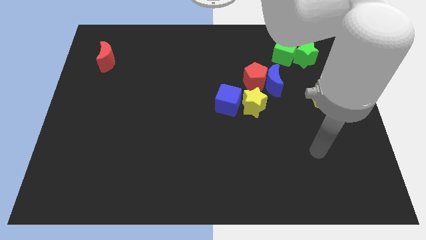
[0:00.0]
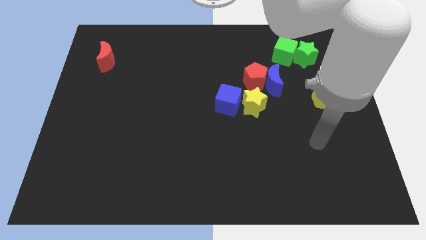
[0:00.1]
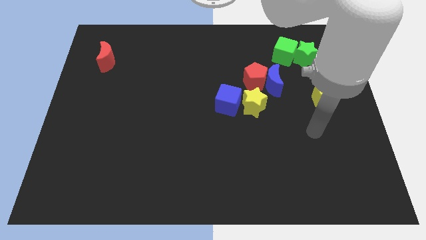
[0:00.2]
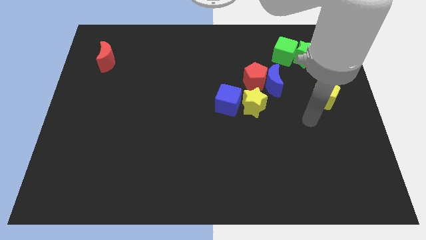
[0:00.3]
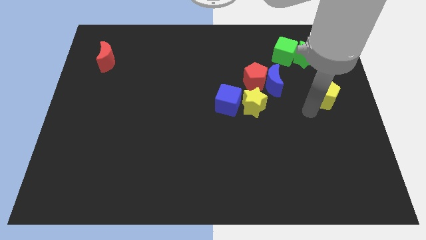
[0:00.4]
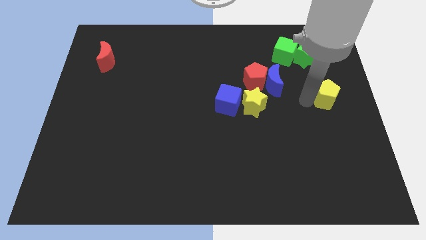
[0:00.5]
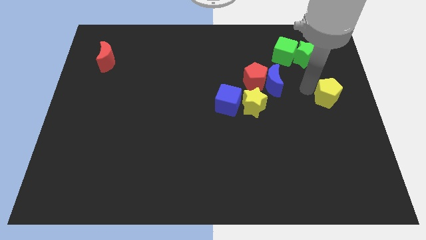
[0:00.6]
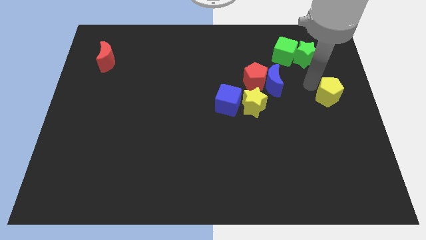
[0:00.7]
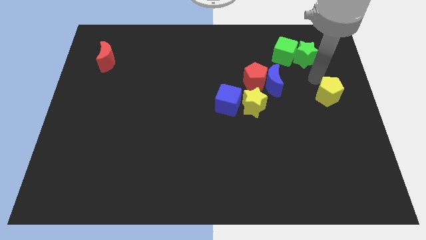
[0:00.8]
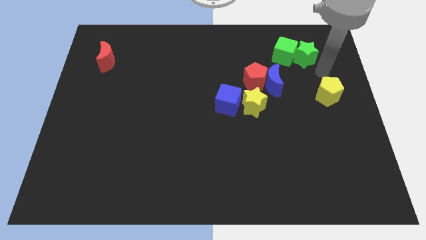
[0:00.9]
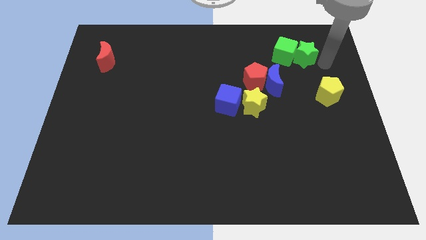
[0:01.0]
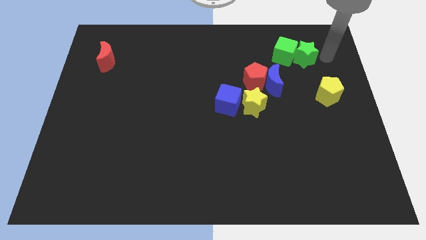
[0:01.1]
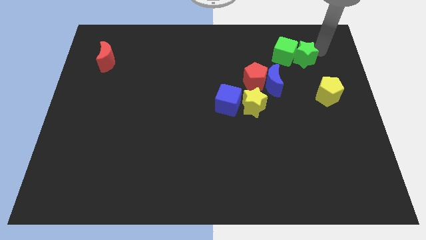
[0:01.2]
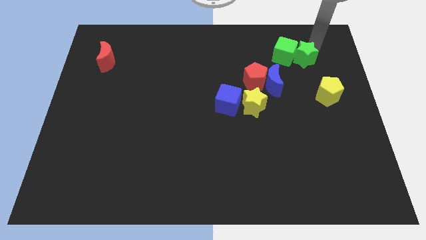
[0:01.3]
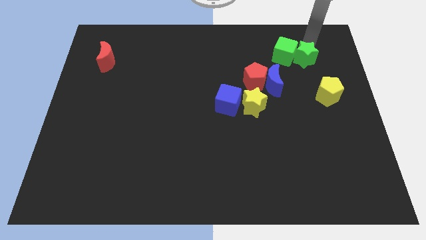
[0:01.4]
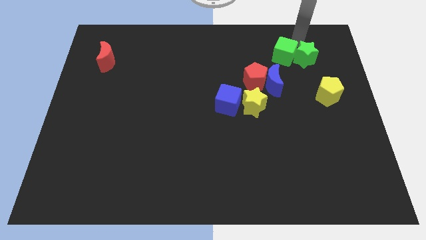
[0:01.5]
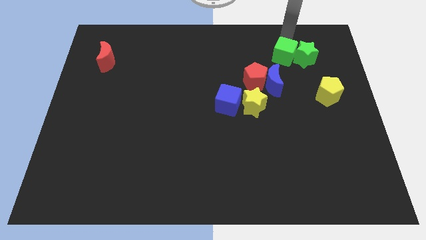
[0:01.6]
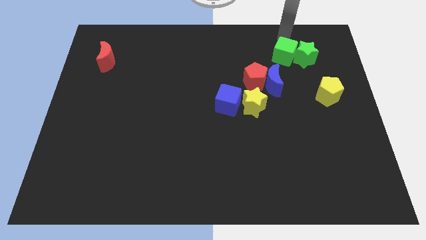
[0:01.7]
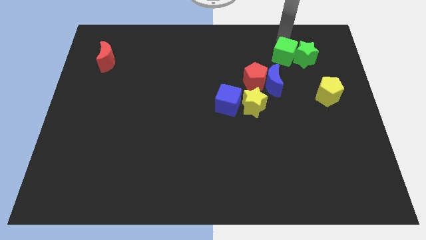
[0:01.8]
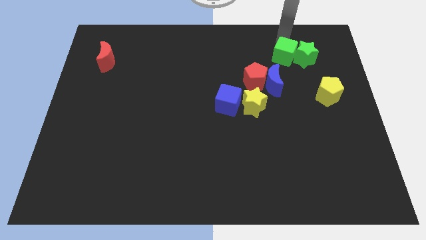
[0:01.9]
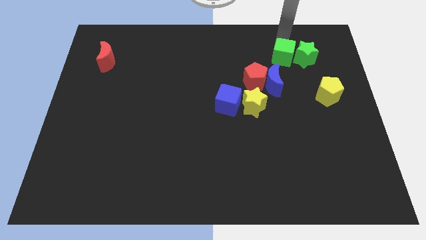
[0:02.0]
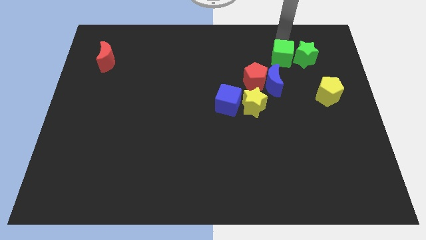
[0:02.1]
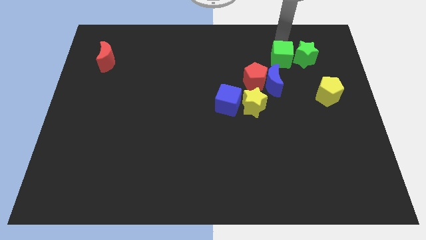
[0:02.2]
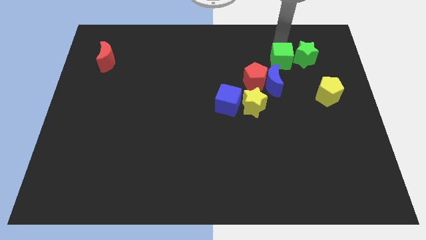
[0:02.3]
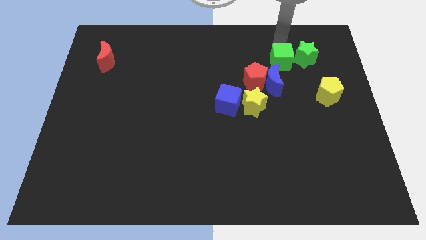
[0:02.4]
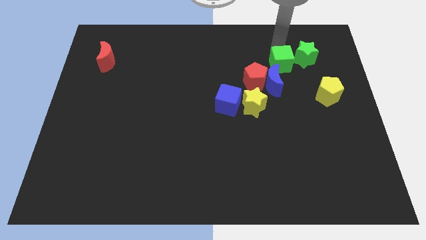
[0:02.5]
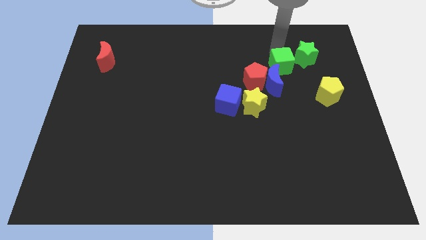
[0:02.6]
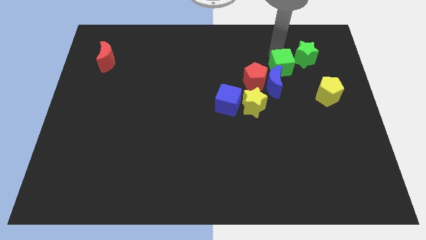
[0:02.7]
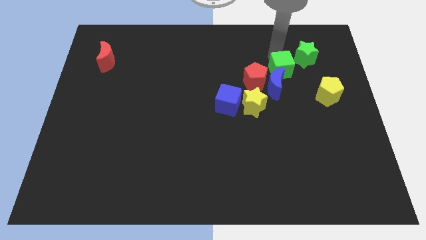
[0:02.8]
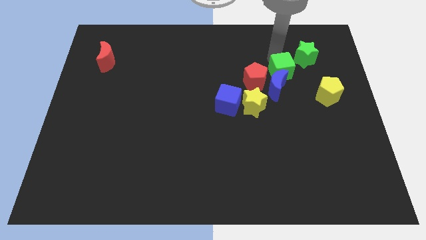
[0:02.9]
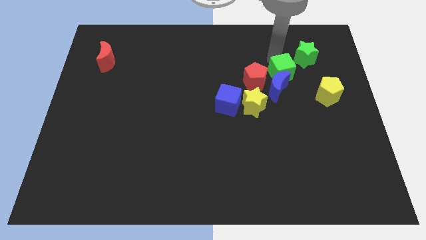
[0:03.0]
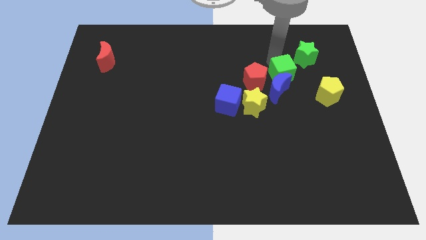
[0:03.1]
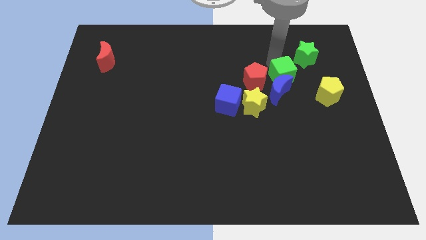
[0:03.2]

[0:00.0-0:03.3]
move the green cube slightly downwards

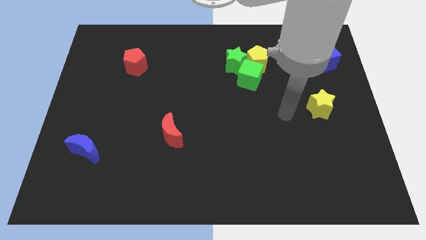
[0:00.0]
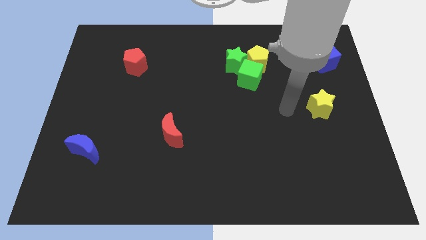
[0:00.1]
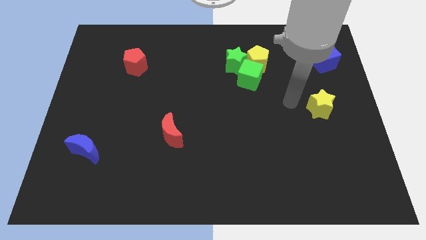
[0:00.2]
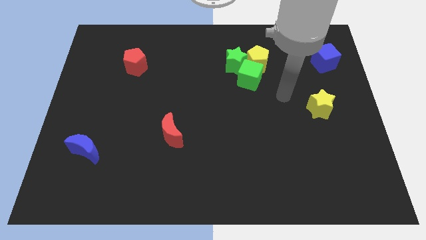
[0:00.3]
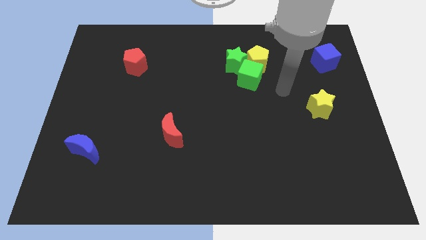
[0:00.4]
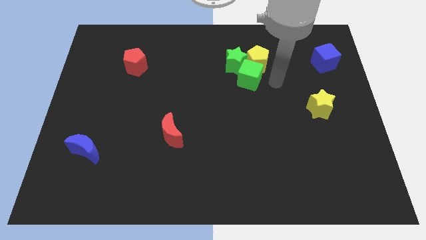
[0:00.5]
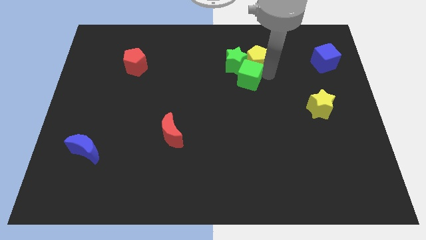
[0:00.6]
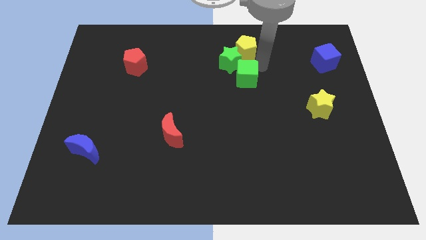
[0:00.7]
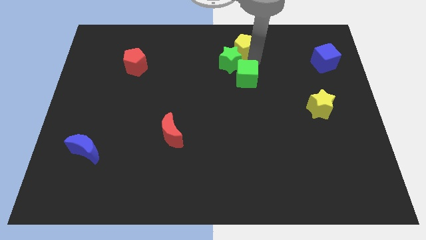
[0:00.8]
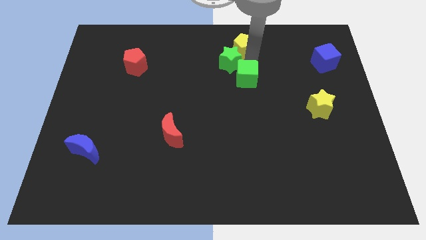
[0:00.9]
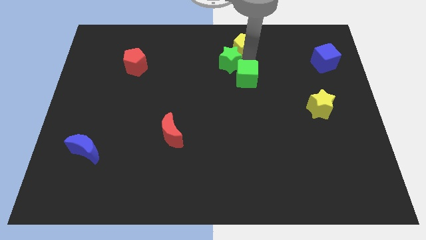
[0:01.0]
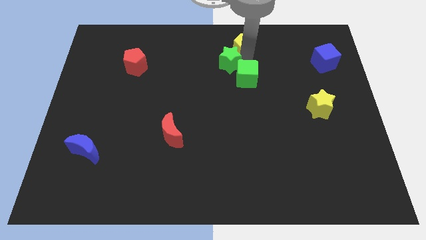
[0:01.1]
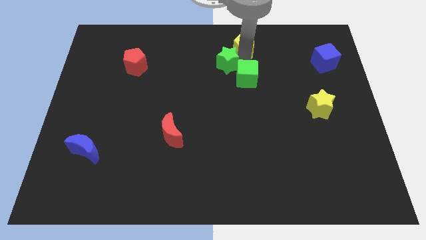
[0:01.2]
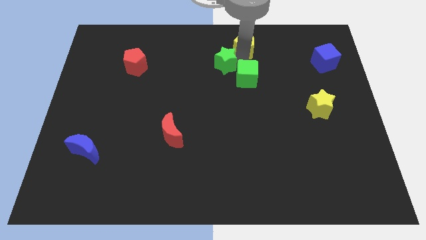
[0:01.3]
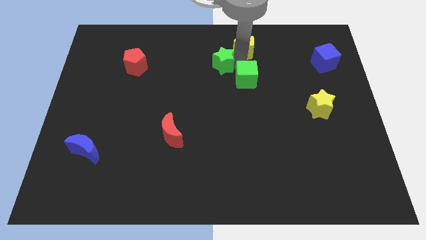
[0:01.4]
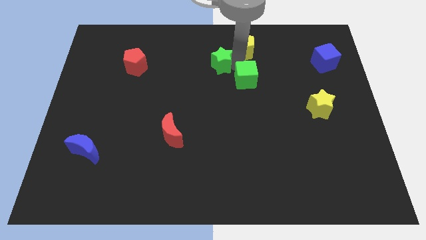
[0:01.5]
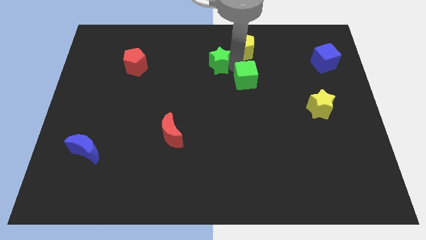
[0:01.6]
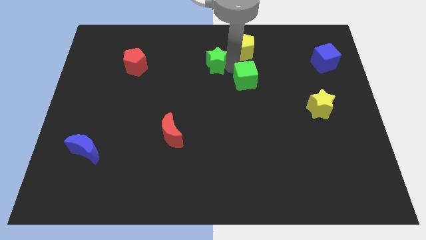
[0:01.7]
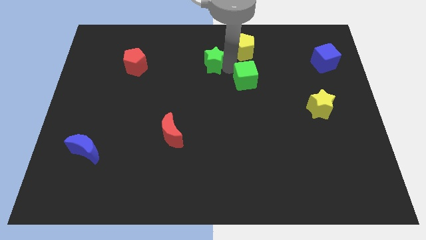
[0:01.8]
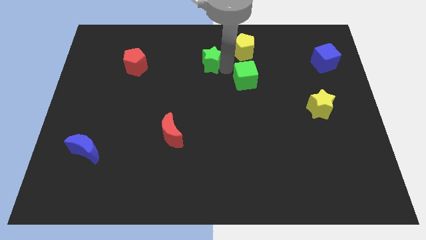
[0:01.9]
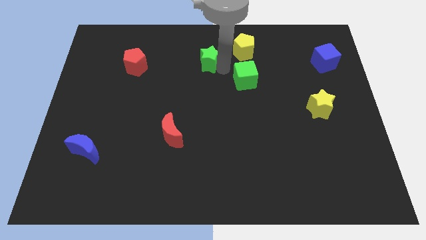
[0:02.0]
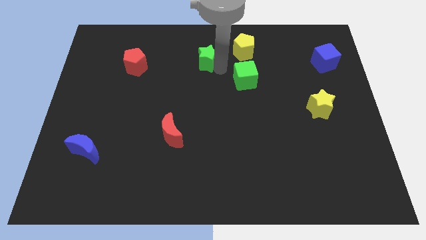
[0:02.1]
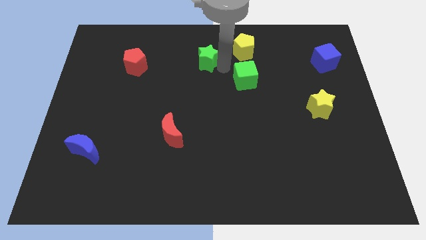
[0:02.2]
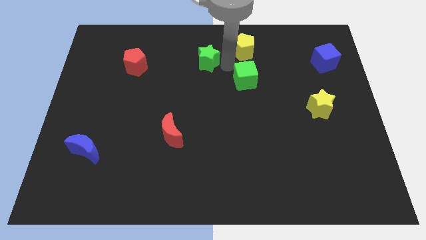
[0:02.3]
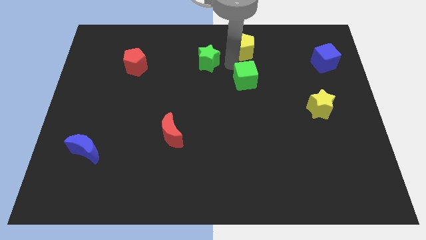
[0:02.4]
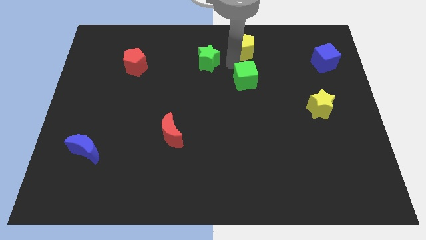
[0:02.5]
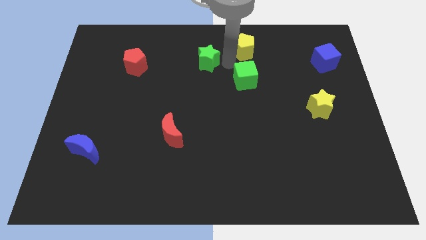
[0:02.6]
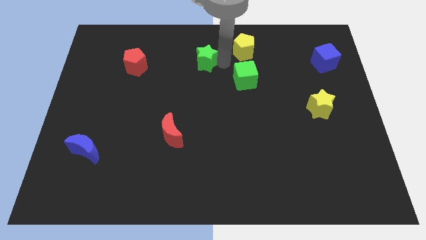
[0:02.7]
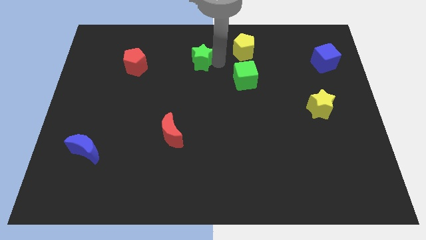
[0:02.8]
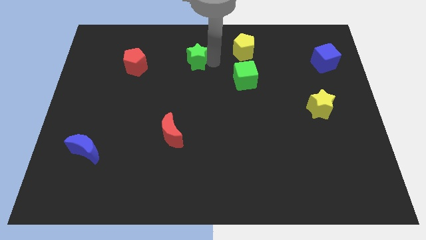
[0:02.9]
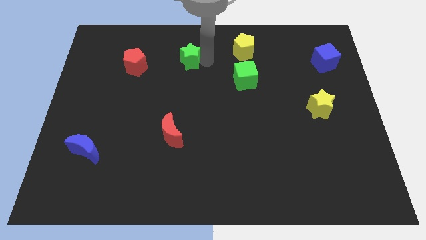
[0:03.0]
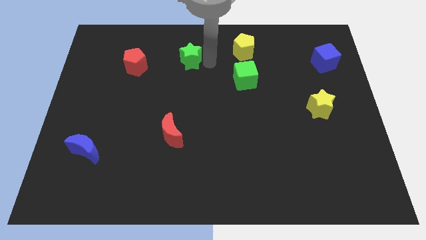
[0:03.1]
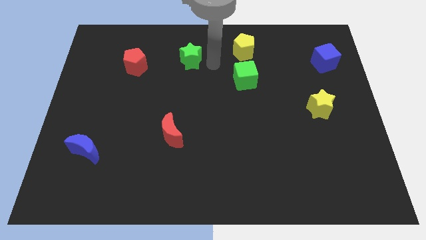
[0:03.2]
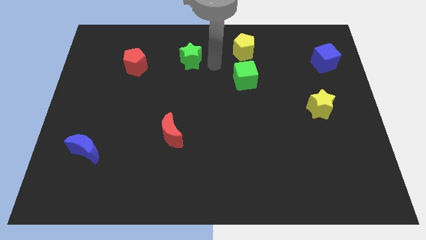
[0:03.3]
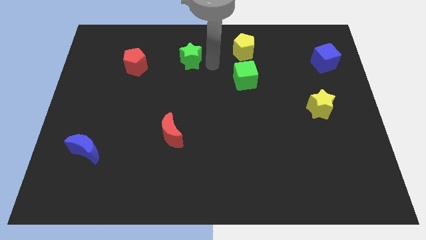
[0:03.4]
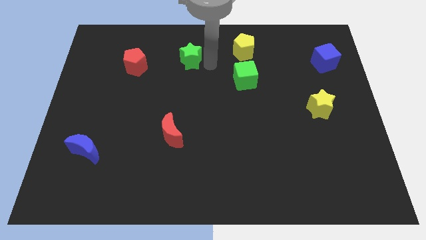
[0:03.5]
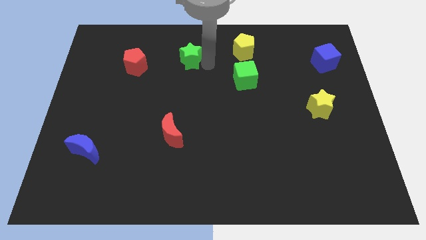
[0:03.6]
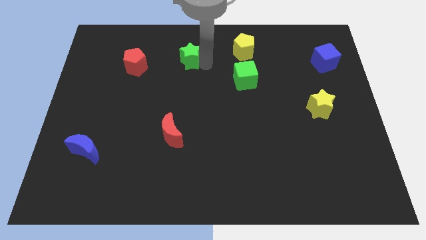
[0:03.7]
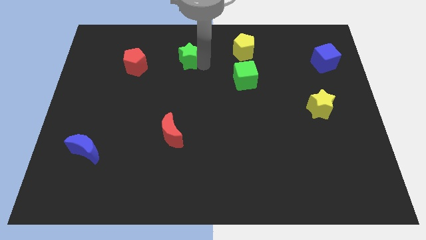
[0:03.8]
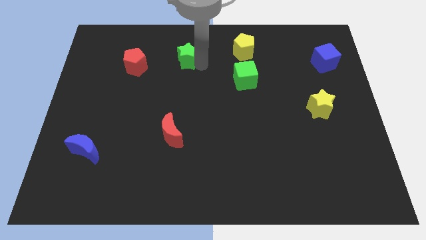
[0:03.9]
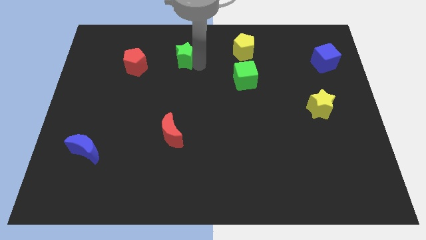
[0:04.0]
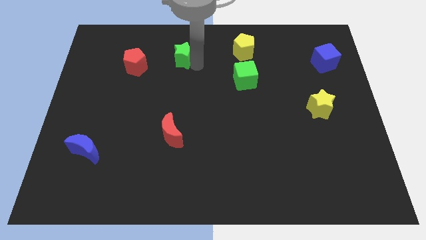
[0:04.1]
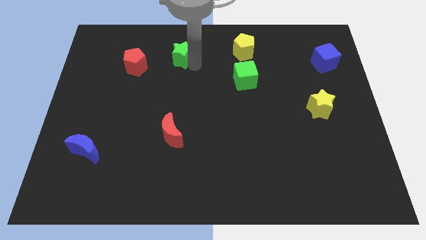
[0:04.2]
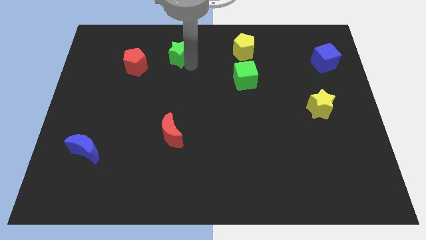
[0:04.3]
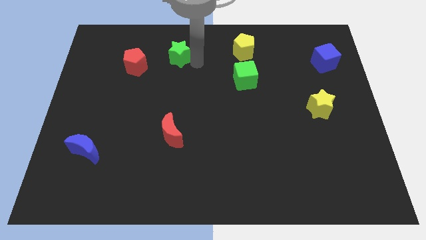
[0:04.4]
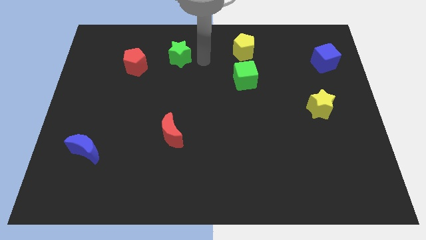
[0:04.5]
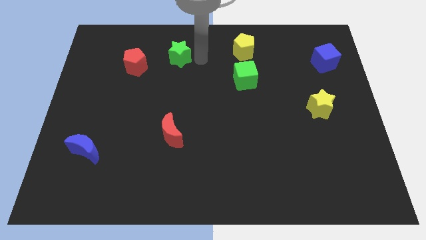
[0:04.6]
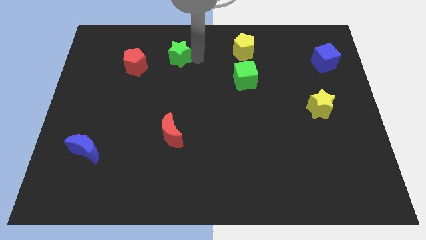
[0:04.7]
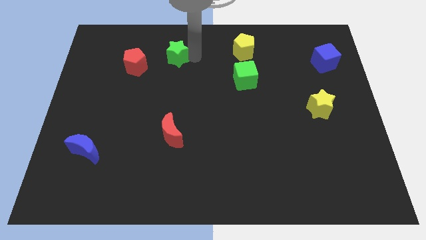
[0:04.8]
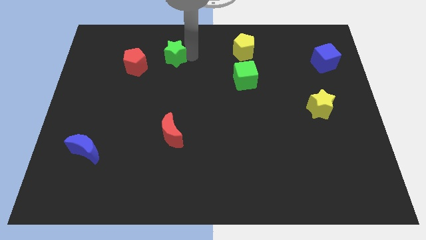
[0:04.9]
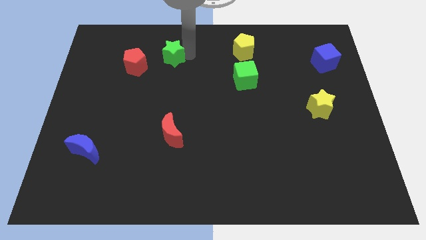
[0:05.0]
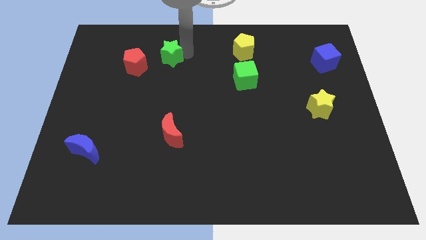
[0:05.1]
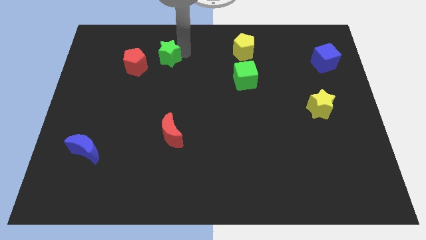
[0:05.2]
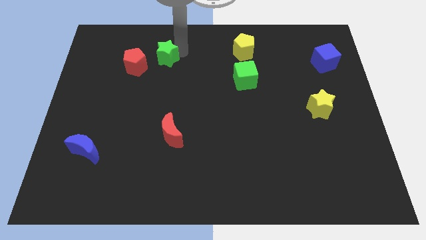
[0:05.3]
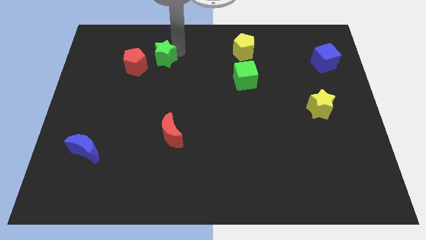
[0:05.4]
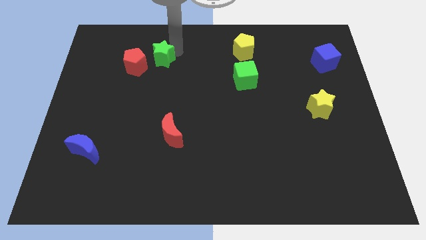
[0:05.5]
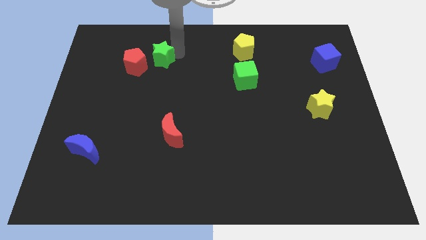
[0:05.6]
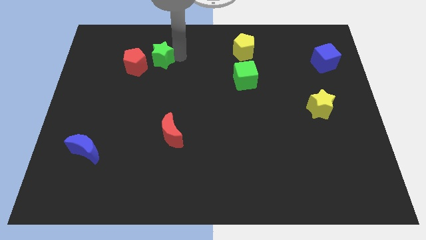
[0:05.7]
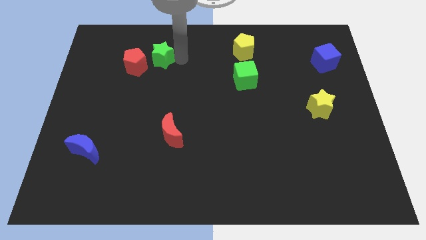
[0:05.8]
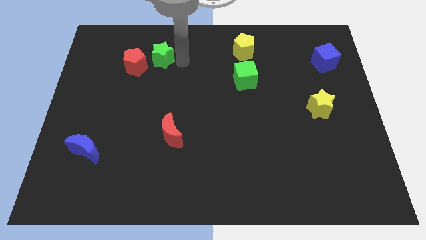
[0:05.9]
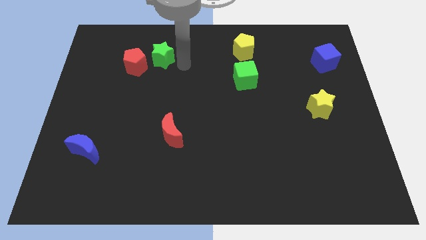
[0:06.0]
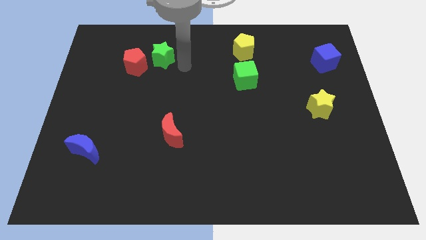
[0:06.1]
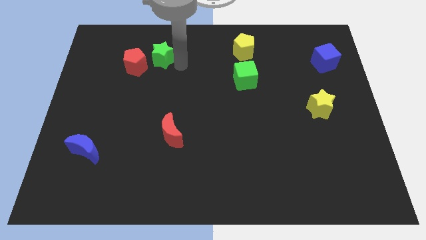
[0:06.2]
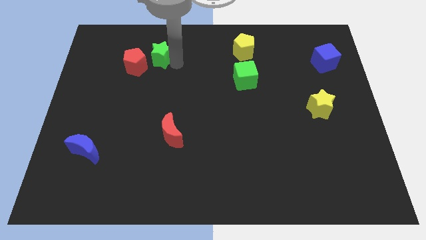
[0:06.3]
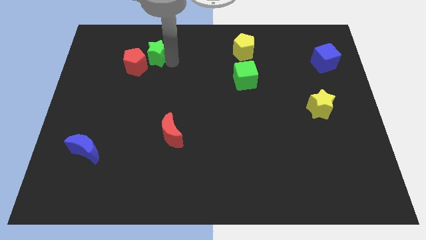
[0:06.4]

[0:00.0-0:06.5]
push the green star to the left
